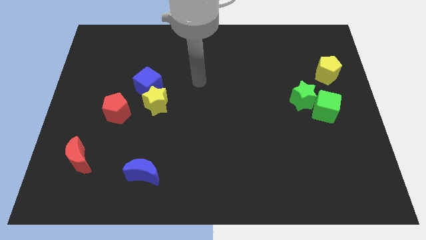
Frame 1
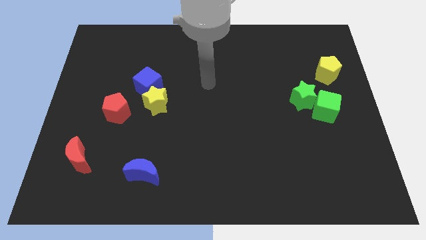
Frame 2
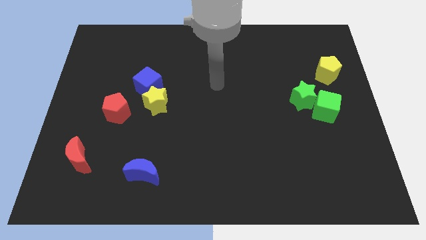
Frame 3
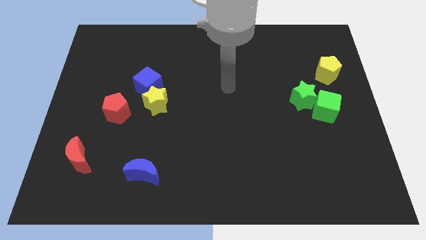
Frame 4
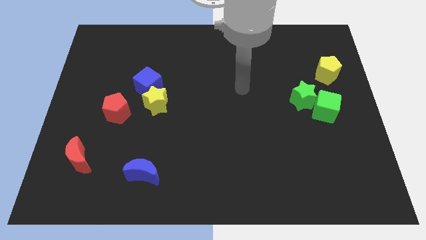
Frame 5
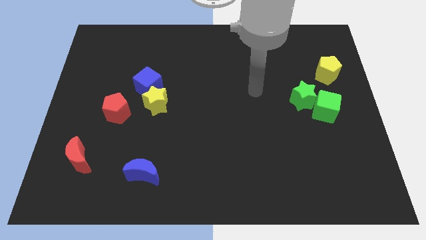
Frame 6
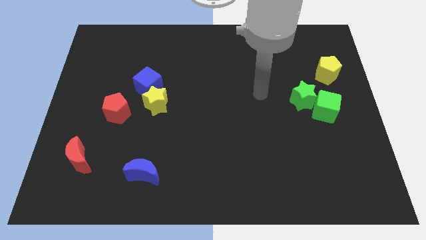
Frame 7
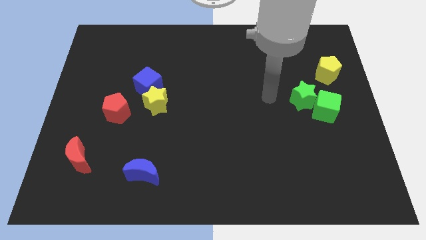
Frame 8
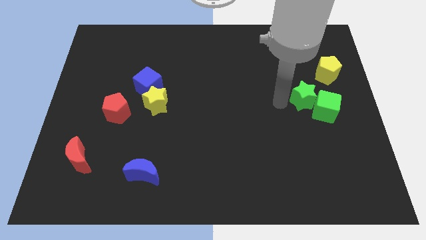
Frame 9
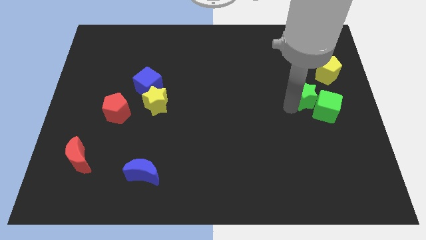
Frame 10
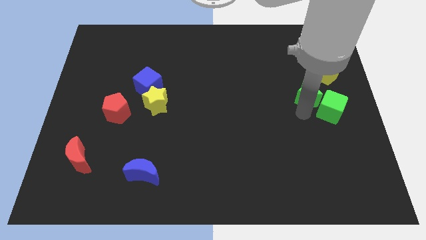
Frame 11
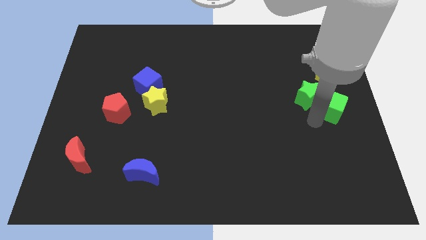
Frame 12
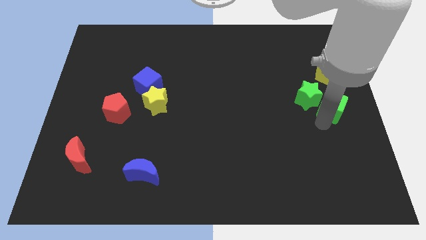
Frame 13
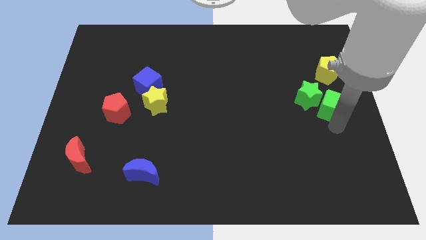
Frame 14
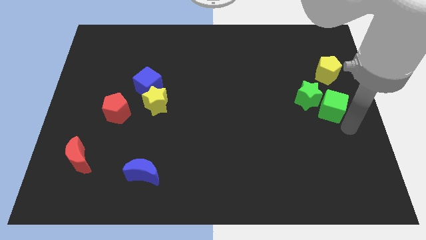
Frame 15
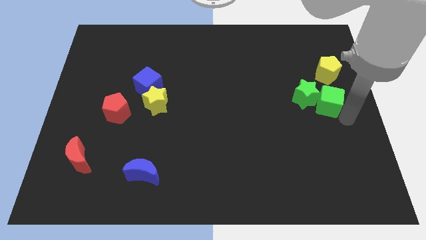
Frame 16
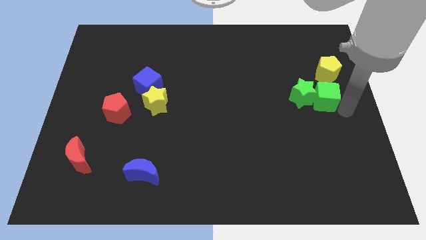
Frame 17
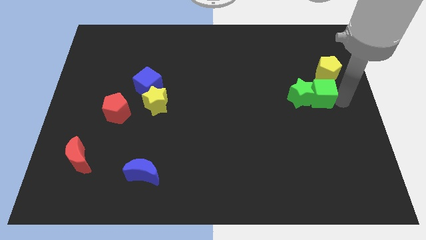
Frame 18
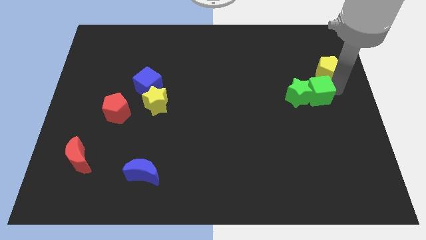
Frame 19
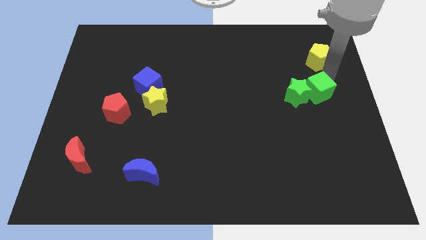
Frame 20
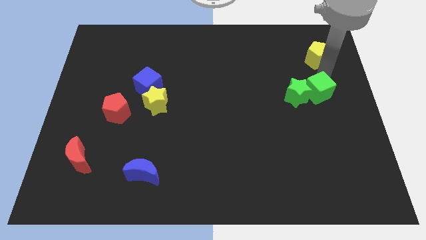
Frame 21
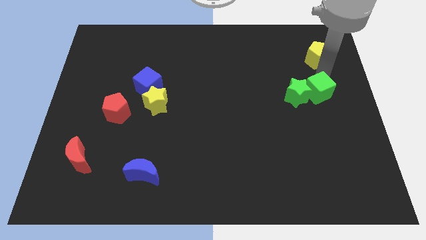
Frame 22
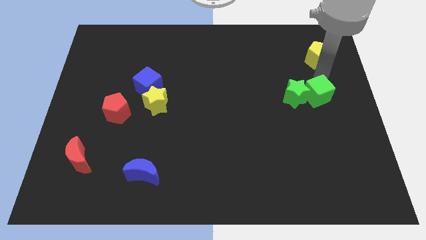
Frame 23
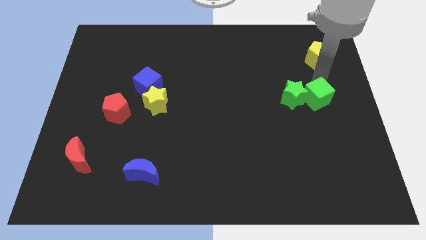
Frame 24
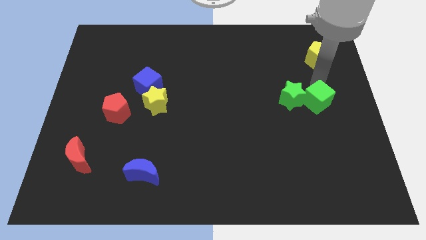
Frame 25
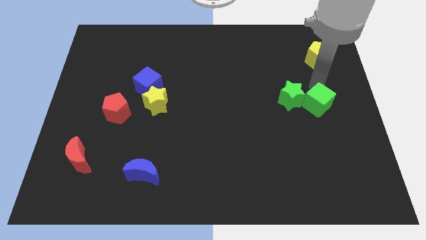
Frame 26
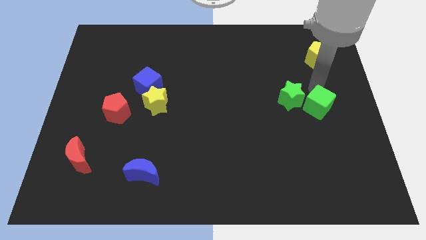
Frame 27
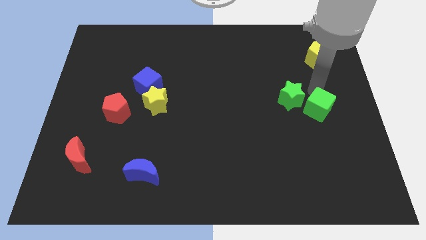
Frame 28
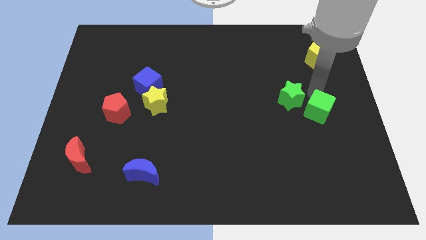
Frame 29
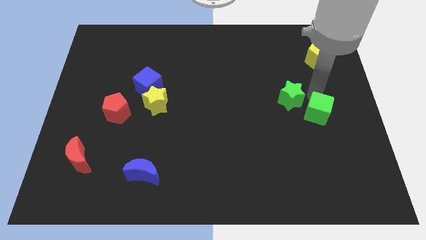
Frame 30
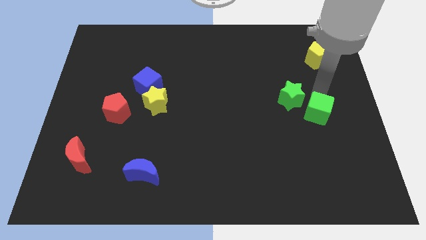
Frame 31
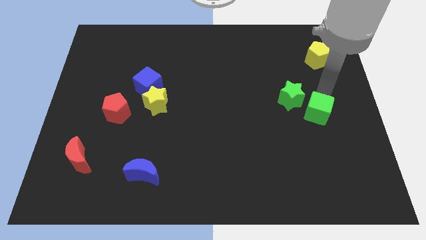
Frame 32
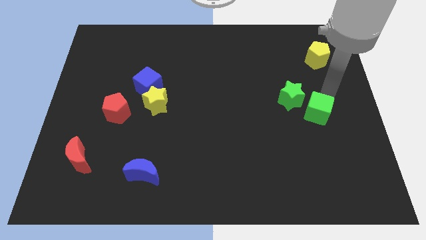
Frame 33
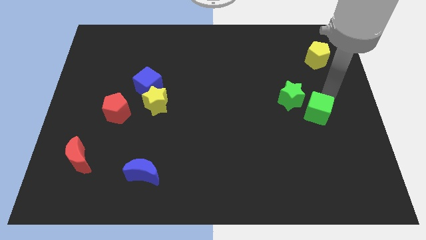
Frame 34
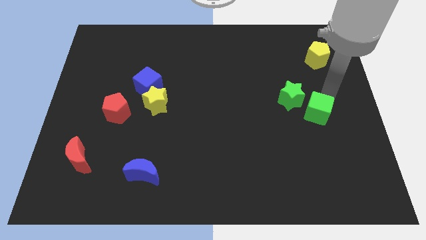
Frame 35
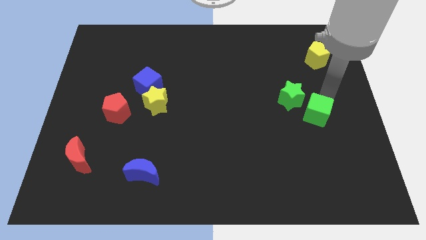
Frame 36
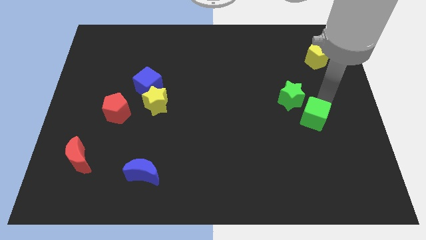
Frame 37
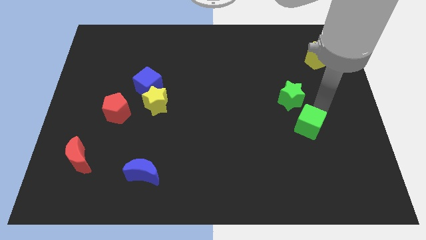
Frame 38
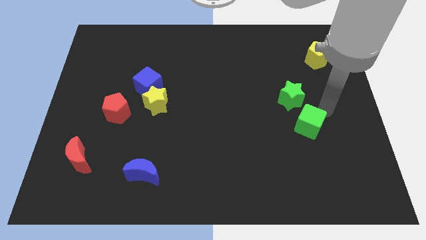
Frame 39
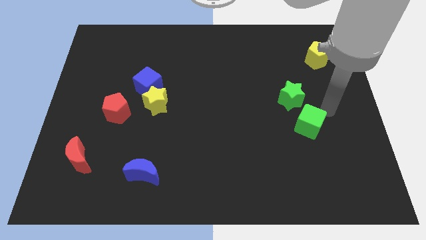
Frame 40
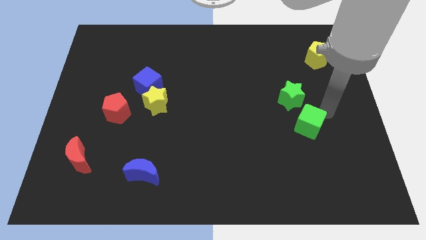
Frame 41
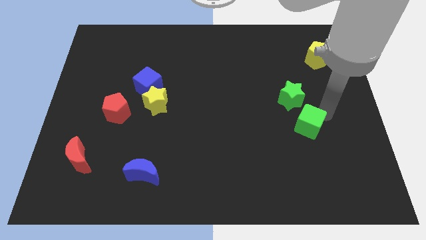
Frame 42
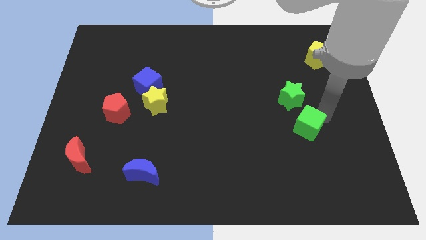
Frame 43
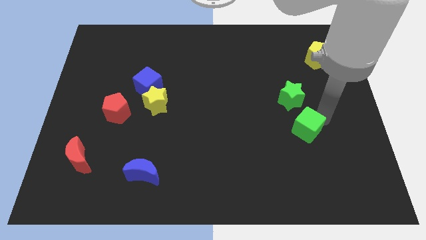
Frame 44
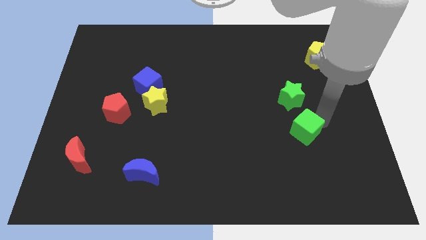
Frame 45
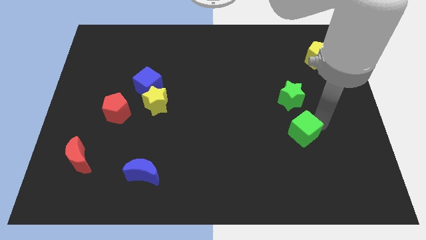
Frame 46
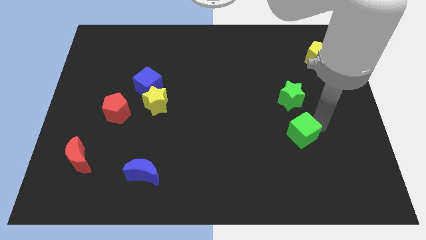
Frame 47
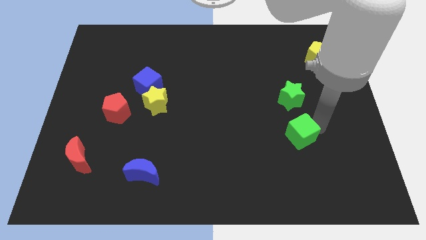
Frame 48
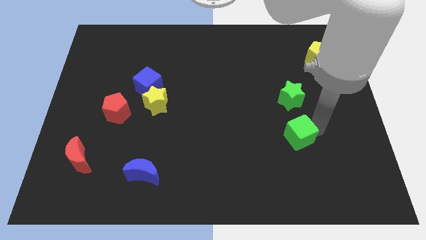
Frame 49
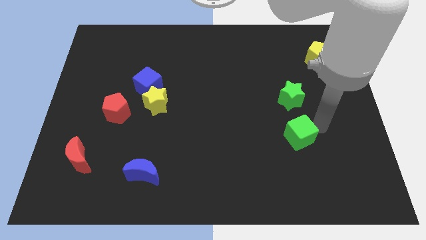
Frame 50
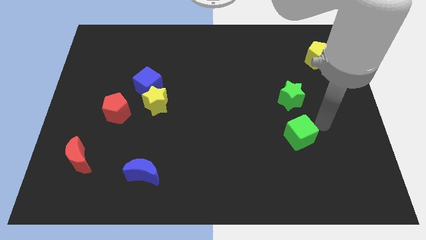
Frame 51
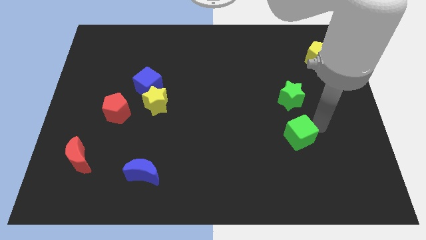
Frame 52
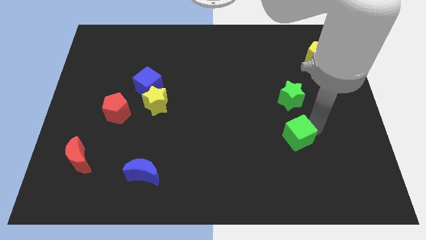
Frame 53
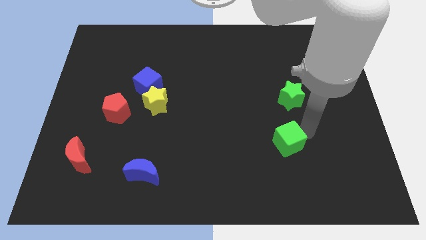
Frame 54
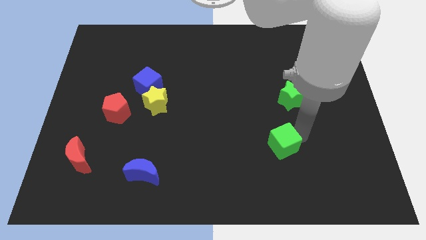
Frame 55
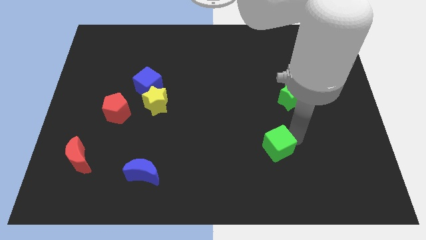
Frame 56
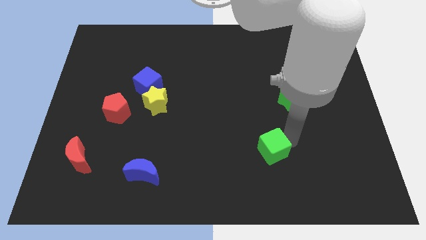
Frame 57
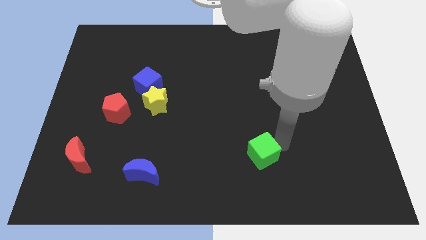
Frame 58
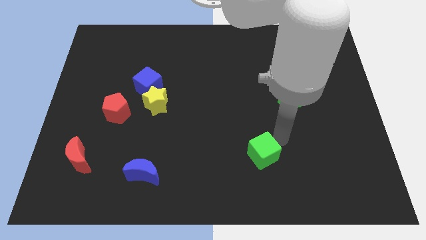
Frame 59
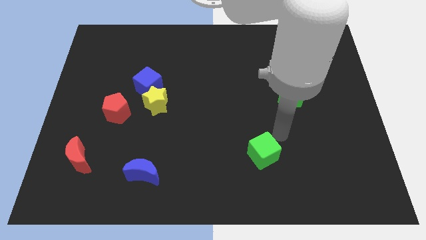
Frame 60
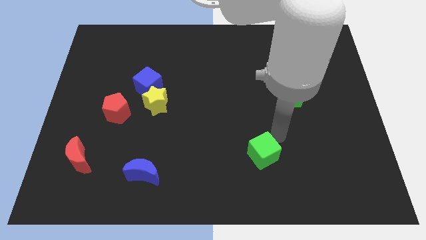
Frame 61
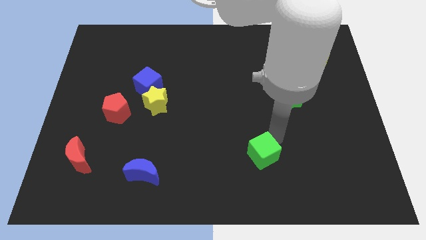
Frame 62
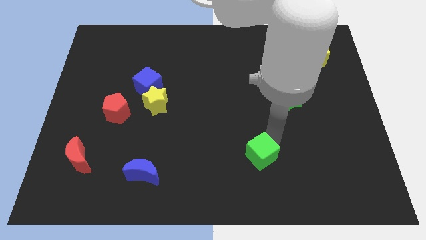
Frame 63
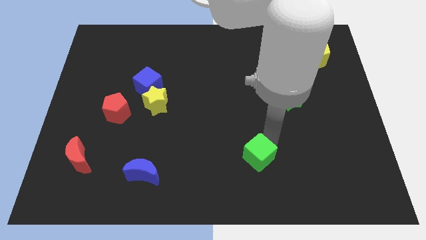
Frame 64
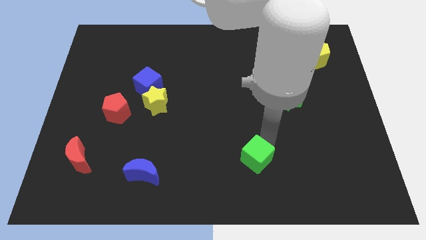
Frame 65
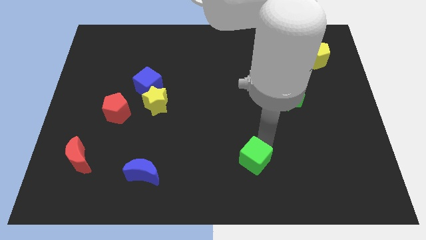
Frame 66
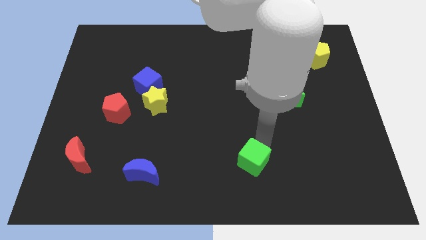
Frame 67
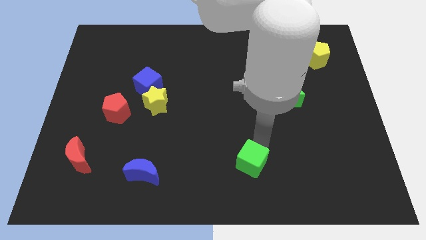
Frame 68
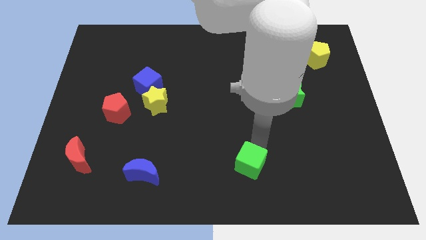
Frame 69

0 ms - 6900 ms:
slide the green cube to the bottom side

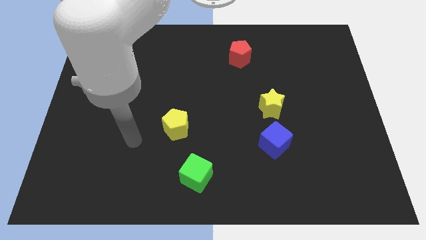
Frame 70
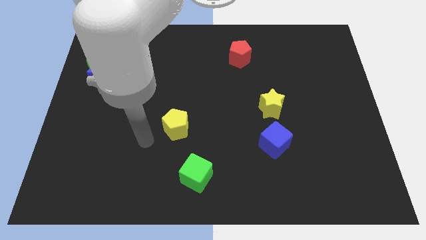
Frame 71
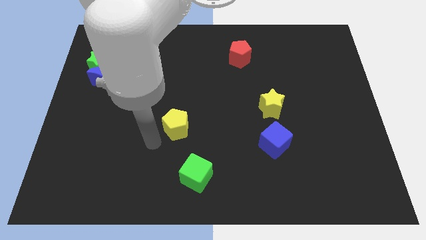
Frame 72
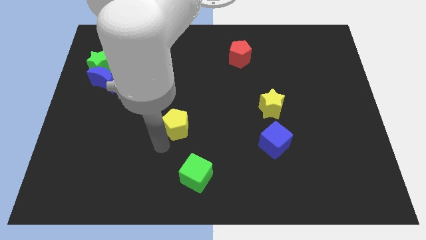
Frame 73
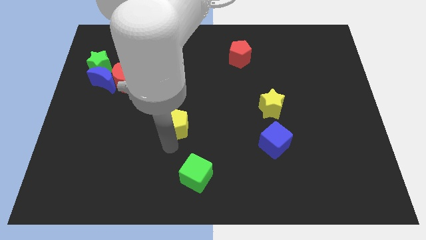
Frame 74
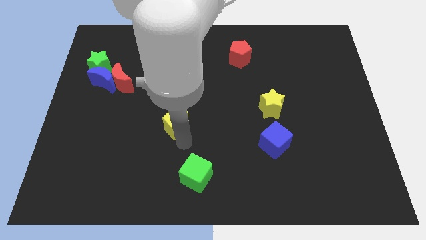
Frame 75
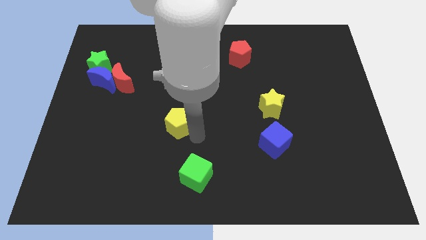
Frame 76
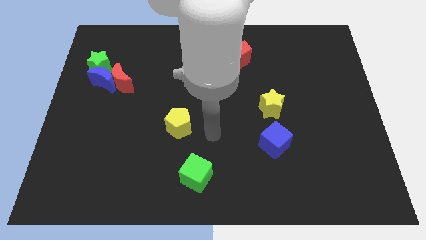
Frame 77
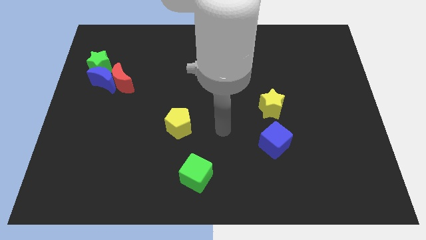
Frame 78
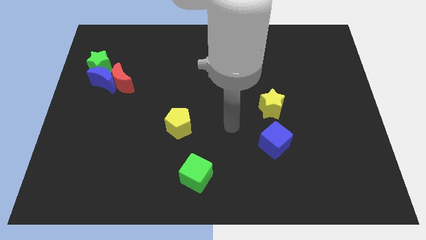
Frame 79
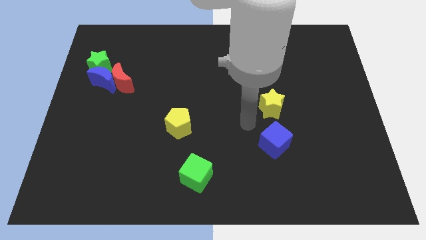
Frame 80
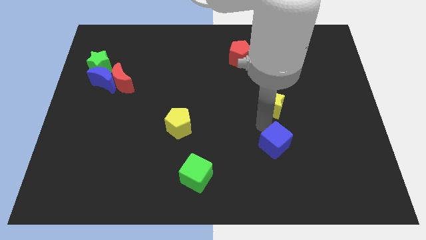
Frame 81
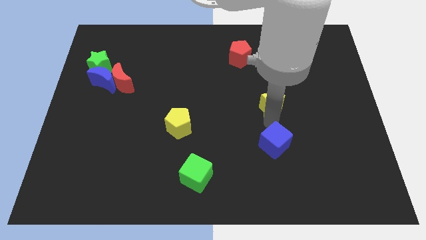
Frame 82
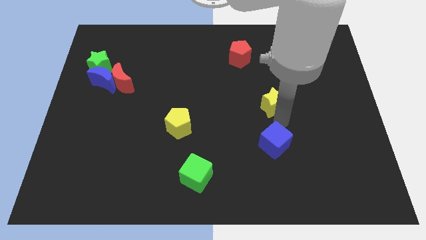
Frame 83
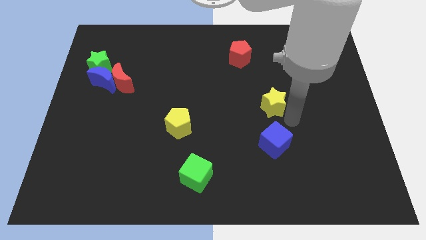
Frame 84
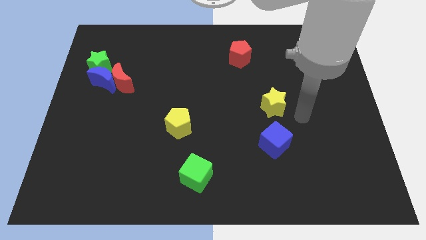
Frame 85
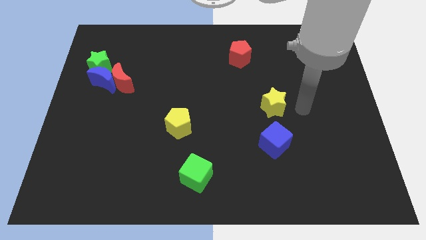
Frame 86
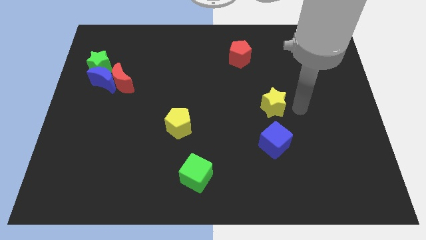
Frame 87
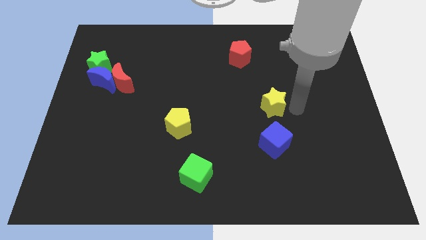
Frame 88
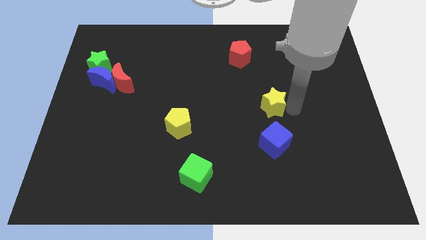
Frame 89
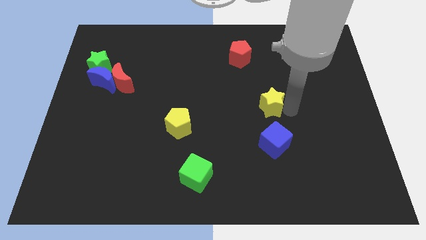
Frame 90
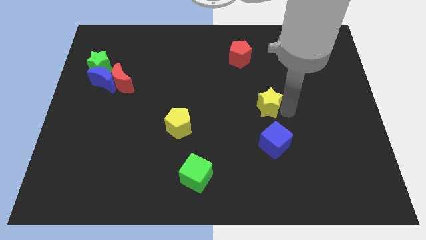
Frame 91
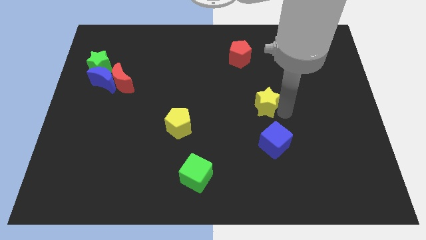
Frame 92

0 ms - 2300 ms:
put the yellow star to the middle
